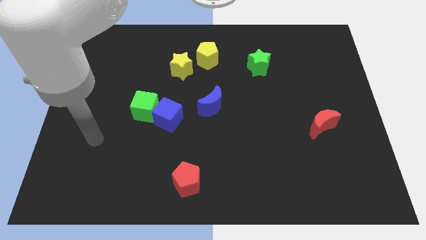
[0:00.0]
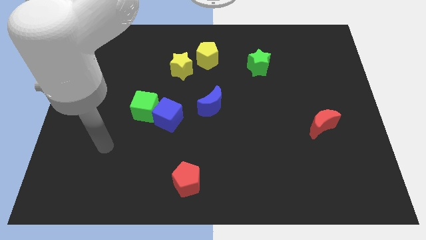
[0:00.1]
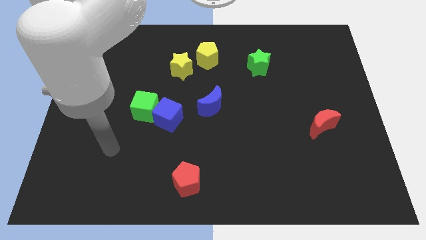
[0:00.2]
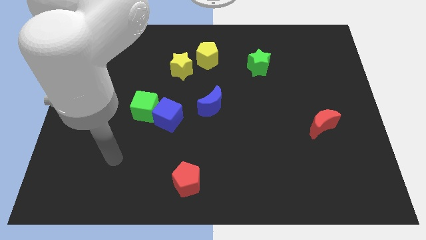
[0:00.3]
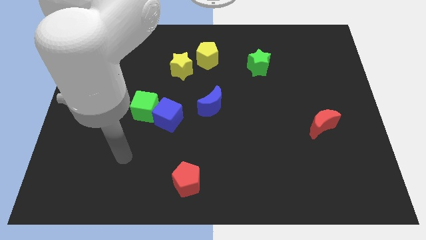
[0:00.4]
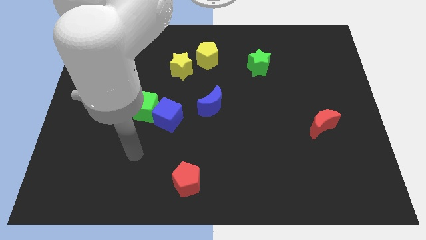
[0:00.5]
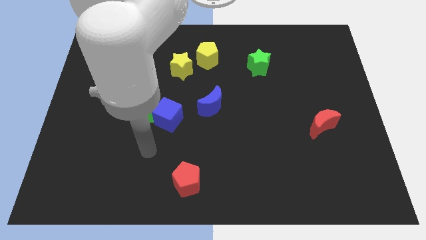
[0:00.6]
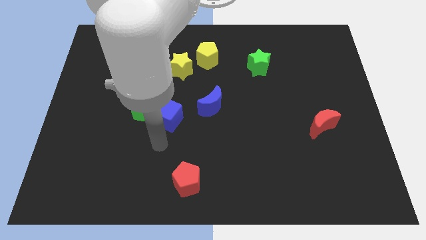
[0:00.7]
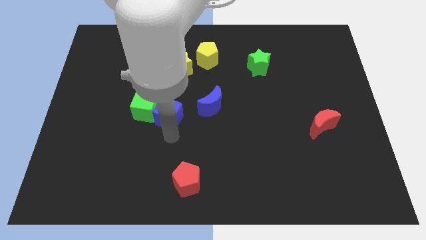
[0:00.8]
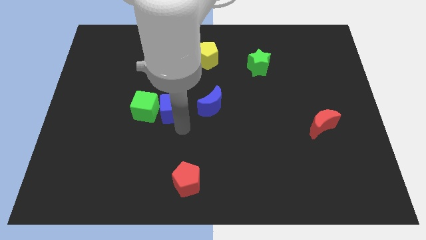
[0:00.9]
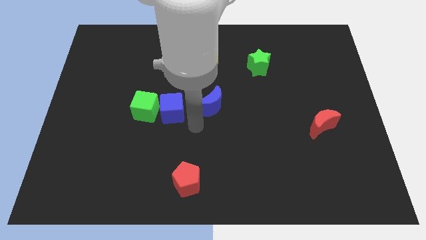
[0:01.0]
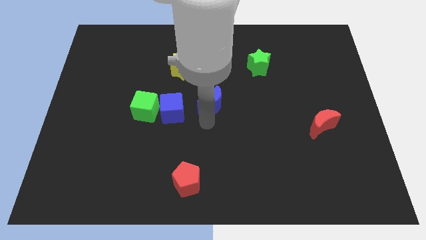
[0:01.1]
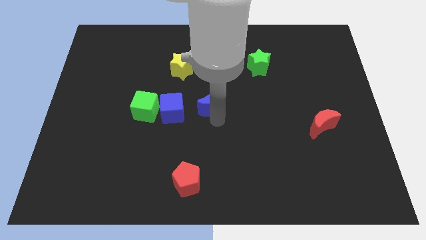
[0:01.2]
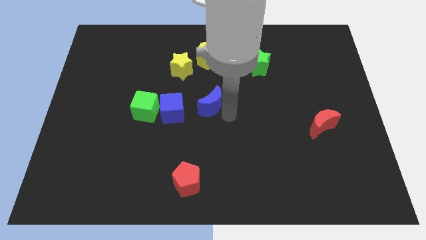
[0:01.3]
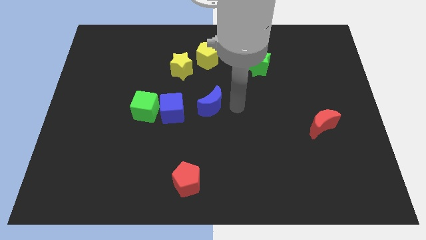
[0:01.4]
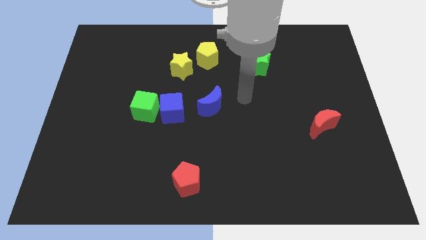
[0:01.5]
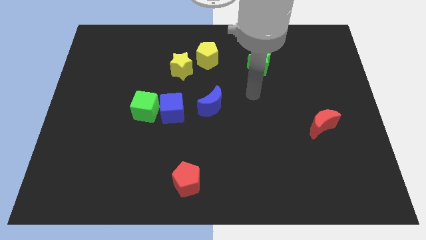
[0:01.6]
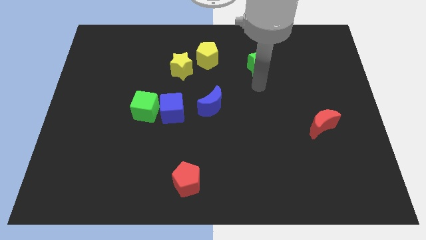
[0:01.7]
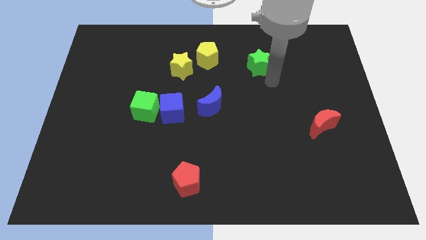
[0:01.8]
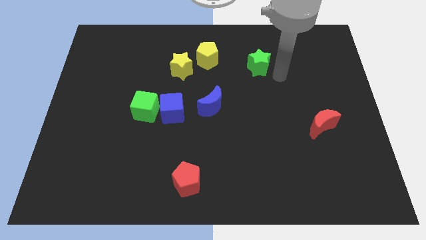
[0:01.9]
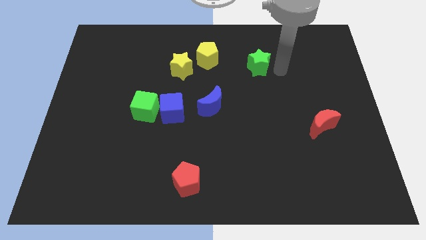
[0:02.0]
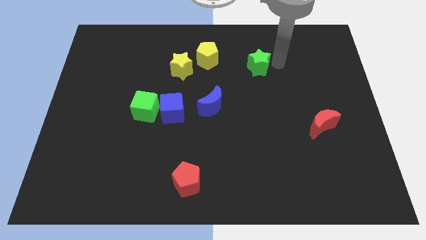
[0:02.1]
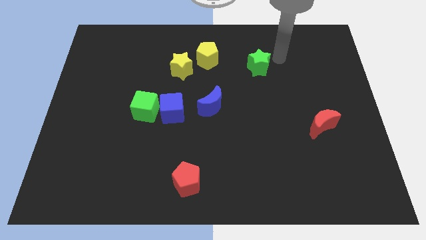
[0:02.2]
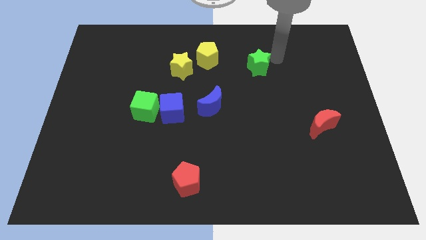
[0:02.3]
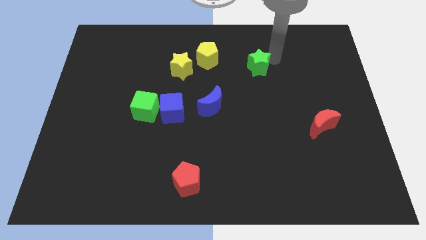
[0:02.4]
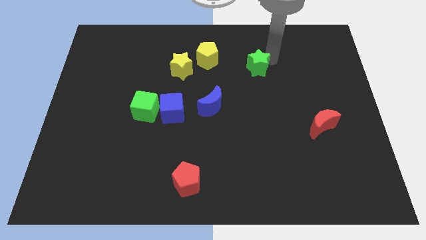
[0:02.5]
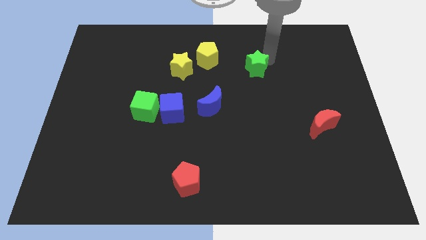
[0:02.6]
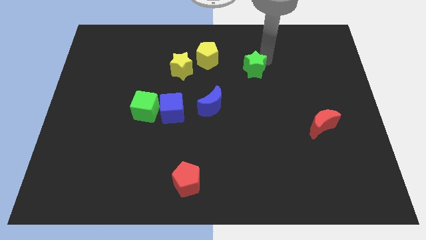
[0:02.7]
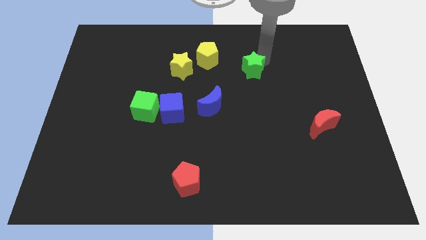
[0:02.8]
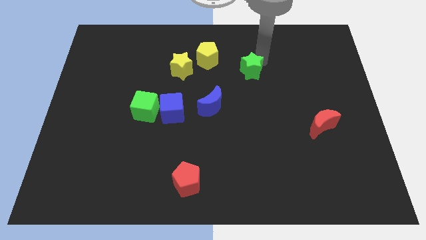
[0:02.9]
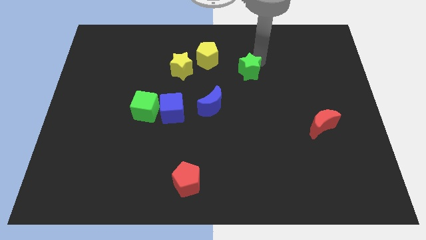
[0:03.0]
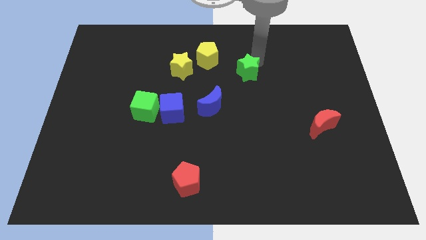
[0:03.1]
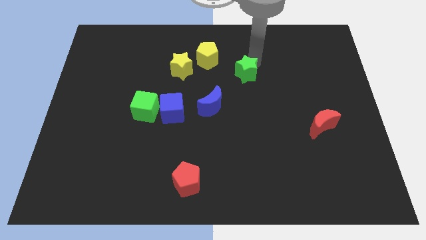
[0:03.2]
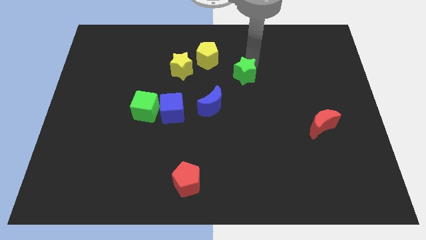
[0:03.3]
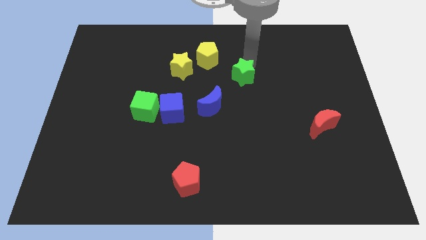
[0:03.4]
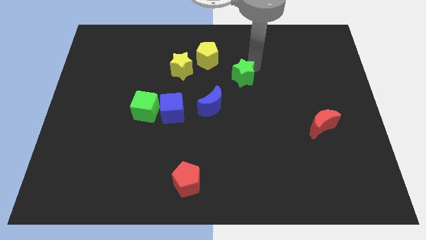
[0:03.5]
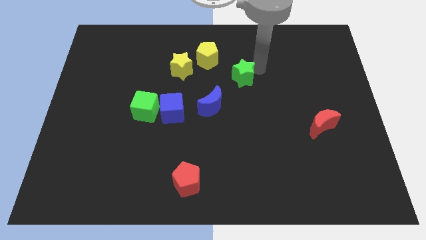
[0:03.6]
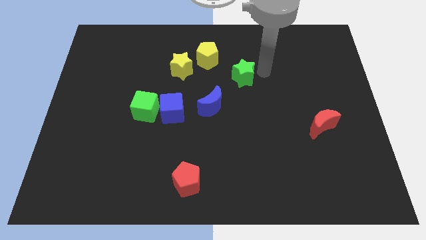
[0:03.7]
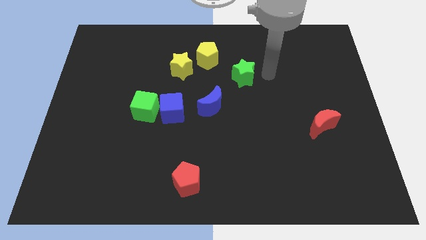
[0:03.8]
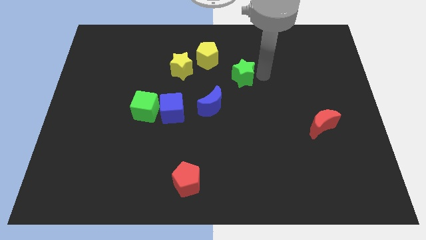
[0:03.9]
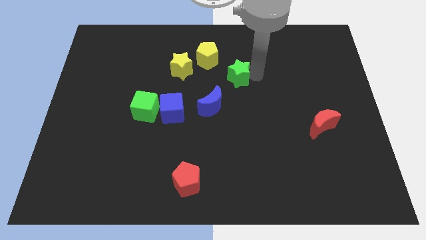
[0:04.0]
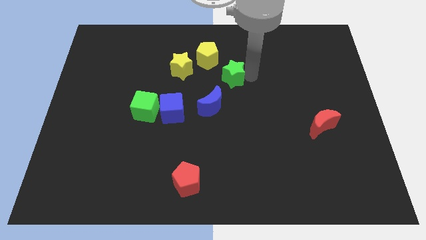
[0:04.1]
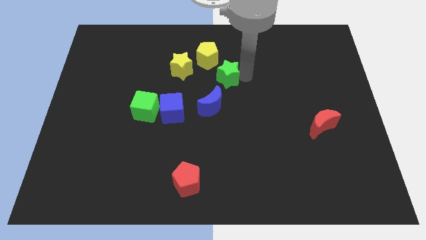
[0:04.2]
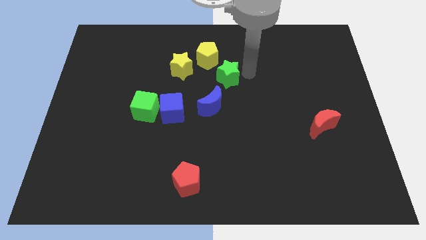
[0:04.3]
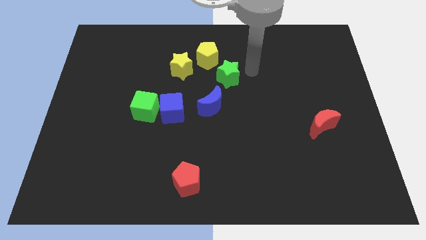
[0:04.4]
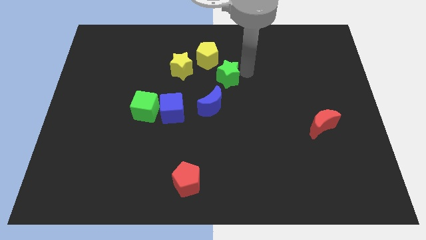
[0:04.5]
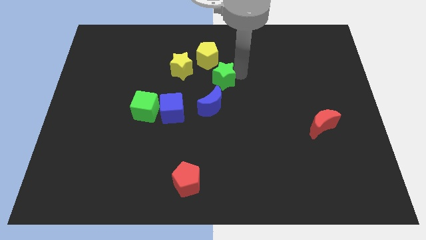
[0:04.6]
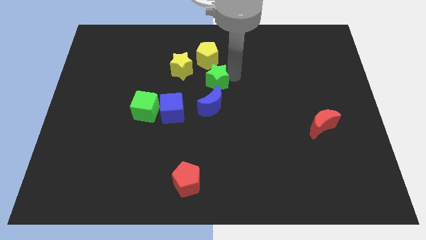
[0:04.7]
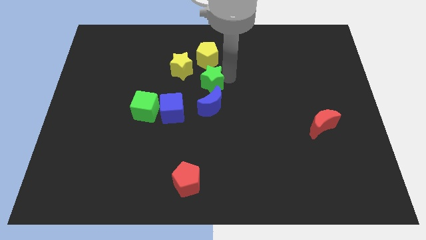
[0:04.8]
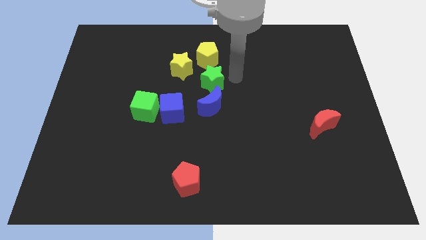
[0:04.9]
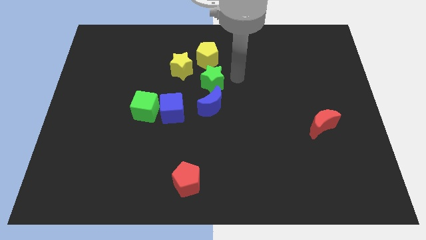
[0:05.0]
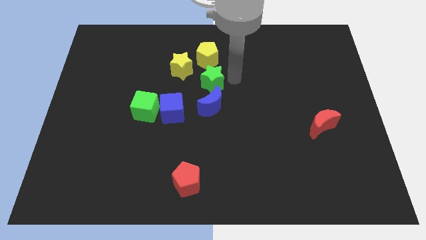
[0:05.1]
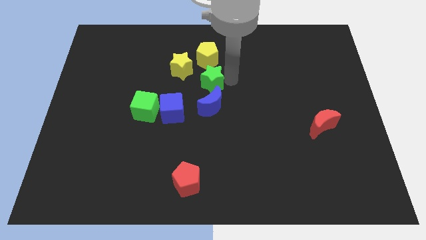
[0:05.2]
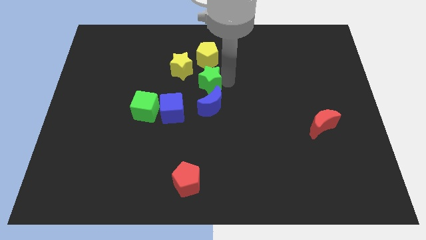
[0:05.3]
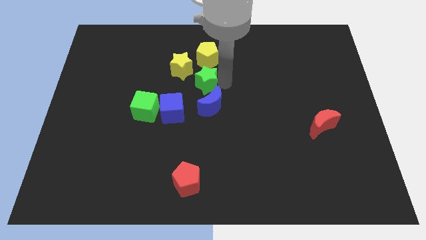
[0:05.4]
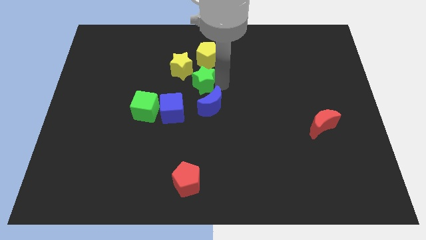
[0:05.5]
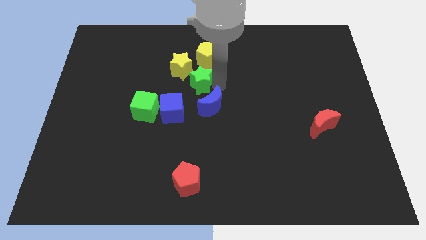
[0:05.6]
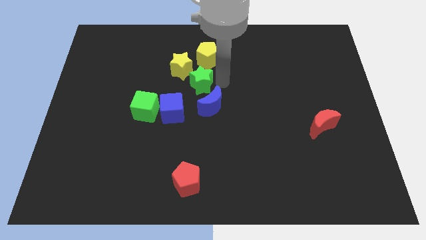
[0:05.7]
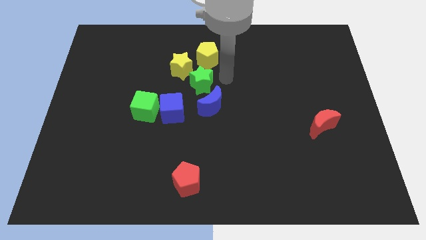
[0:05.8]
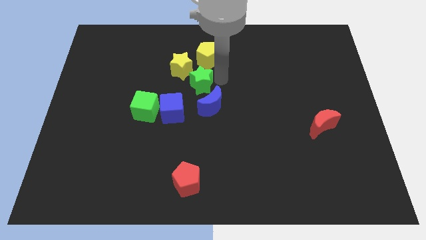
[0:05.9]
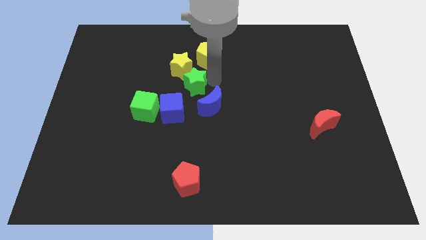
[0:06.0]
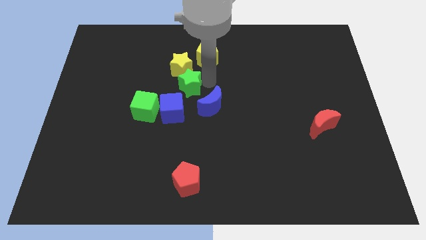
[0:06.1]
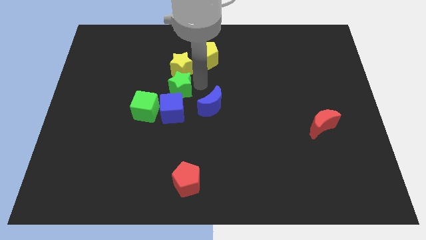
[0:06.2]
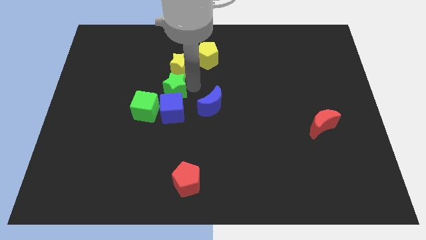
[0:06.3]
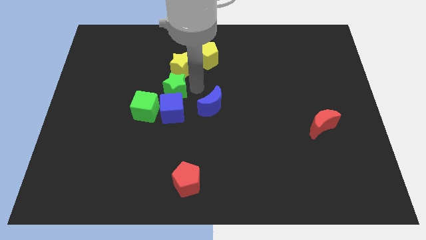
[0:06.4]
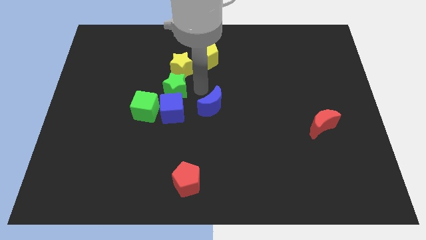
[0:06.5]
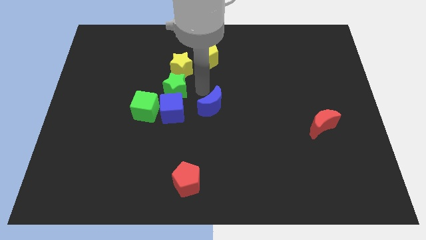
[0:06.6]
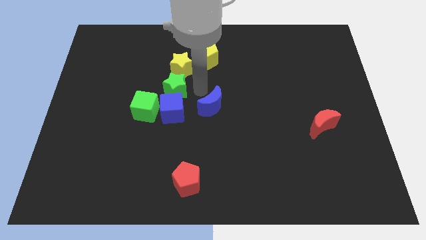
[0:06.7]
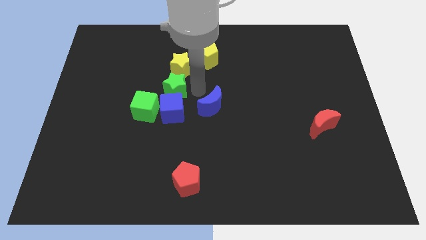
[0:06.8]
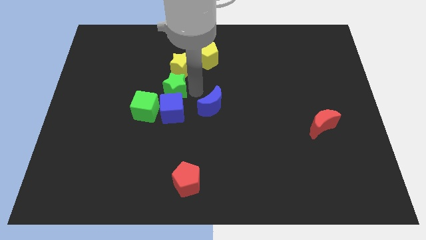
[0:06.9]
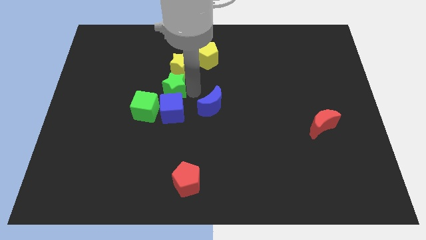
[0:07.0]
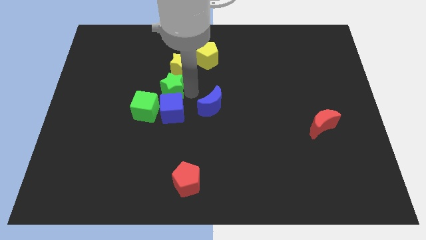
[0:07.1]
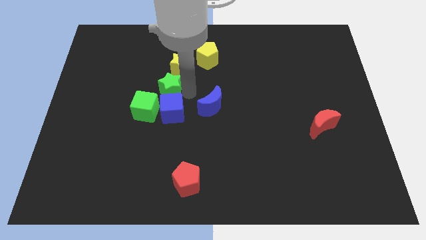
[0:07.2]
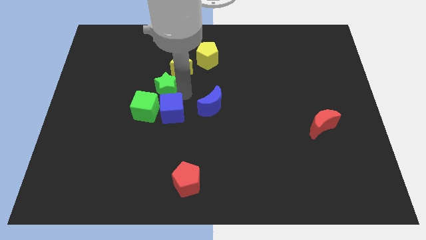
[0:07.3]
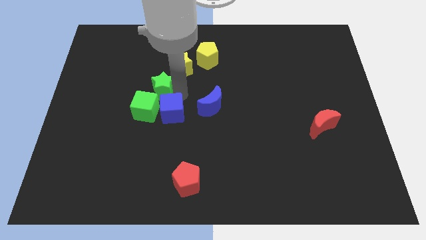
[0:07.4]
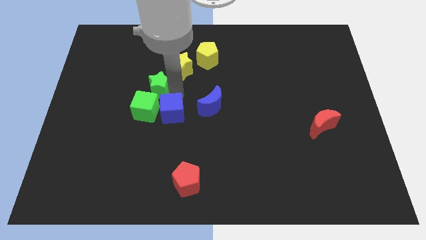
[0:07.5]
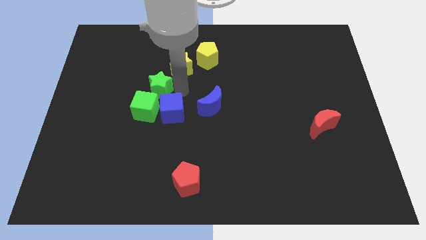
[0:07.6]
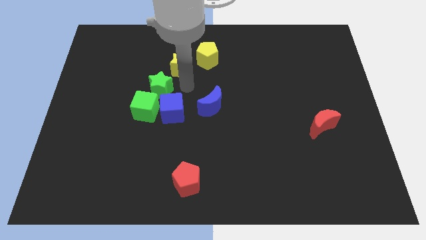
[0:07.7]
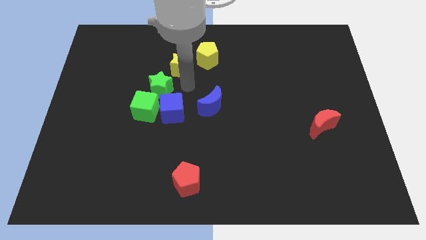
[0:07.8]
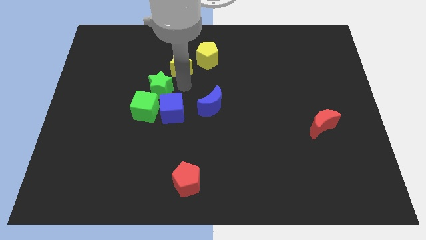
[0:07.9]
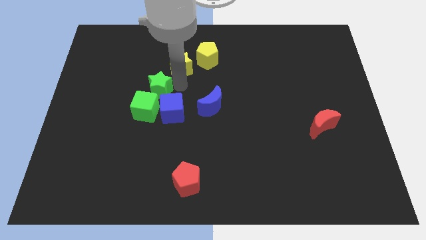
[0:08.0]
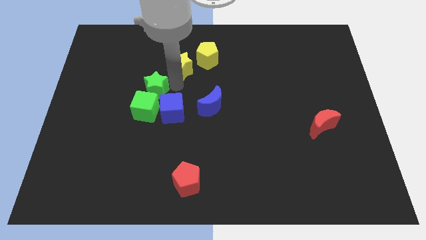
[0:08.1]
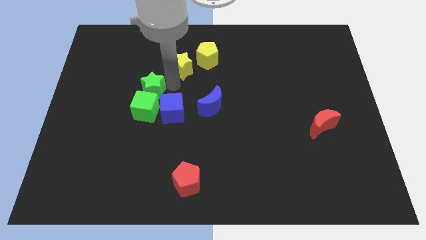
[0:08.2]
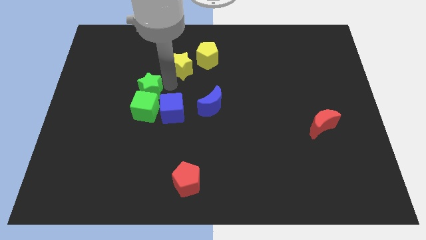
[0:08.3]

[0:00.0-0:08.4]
push the green star diagonally up and to the left of the green cube
